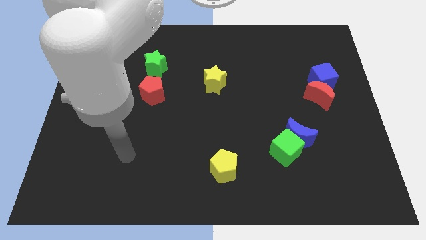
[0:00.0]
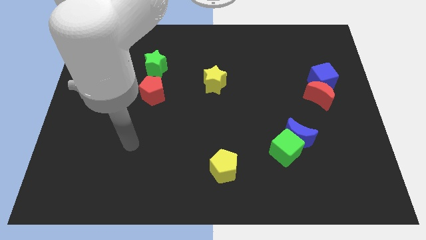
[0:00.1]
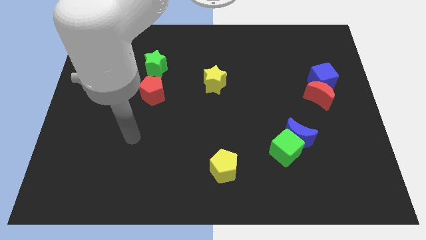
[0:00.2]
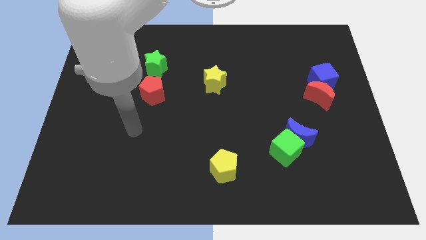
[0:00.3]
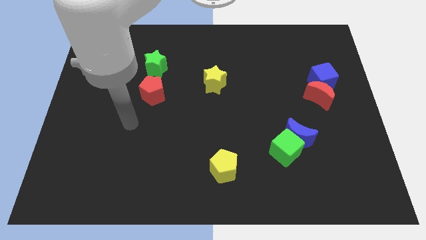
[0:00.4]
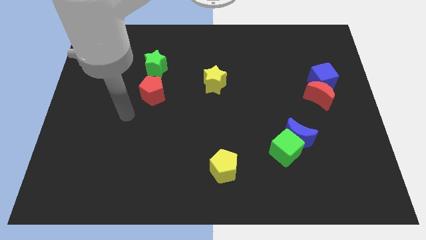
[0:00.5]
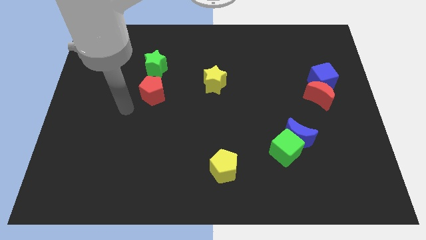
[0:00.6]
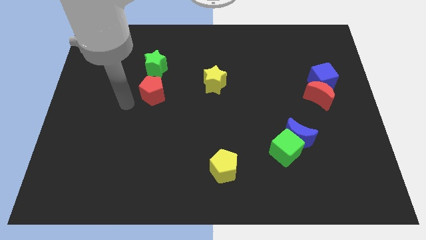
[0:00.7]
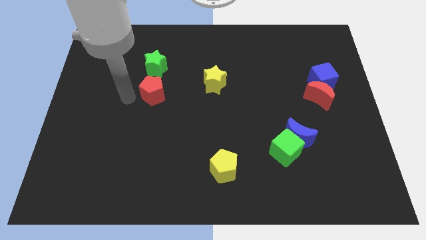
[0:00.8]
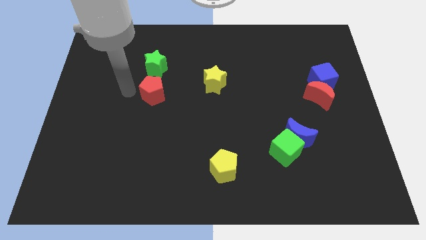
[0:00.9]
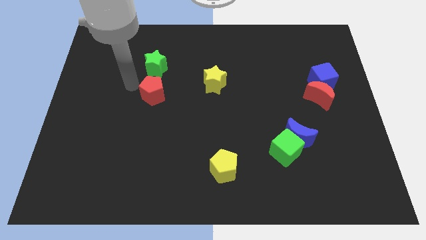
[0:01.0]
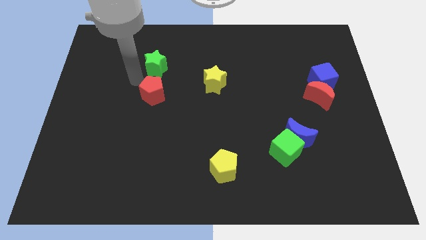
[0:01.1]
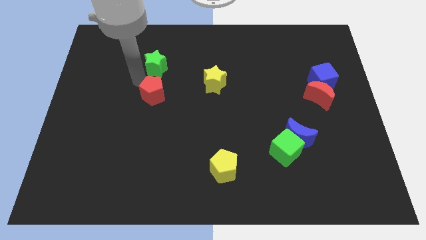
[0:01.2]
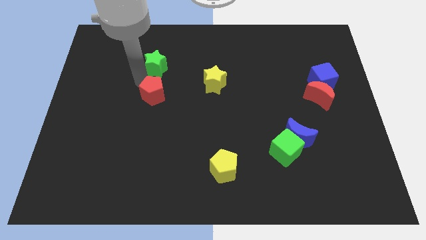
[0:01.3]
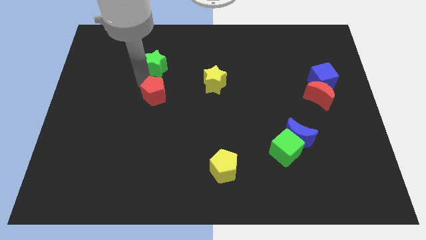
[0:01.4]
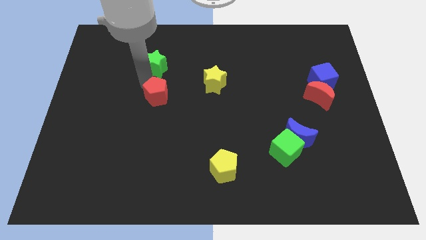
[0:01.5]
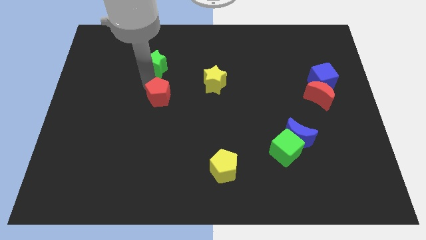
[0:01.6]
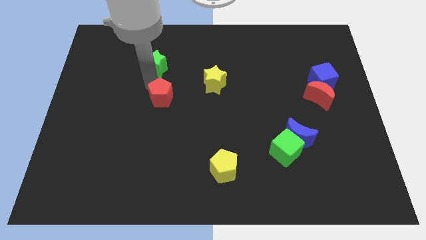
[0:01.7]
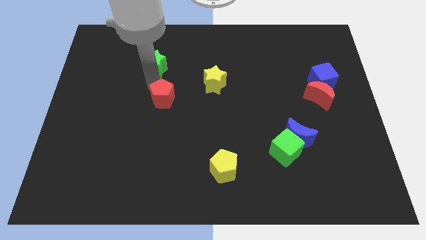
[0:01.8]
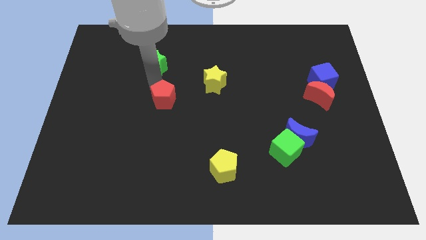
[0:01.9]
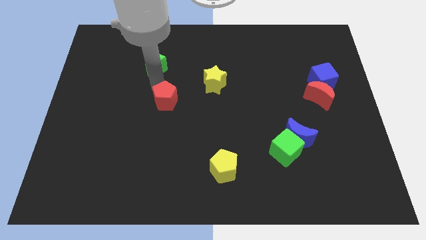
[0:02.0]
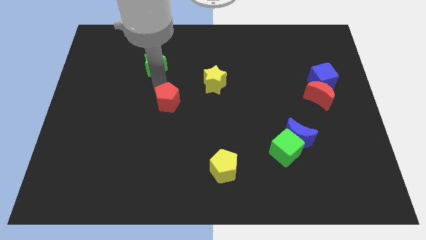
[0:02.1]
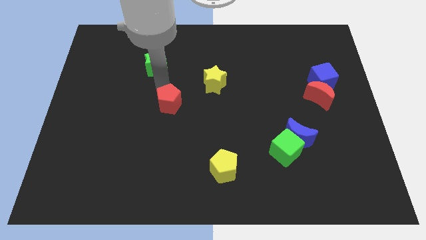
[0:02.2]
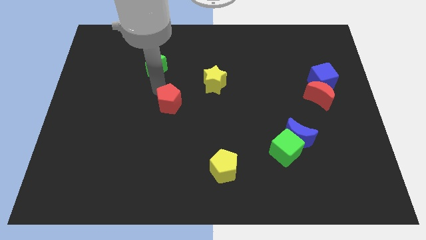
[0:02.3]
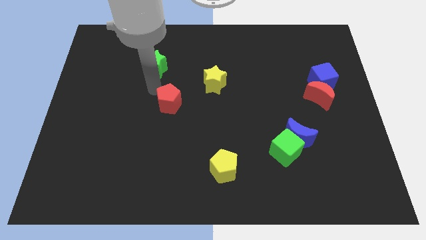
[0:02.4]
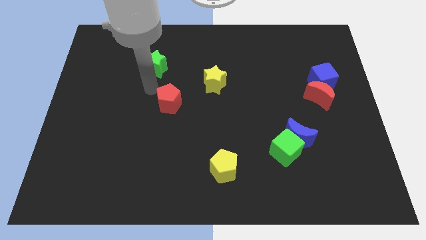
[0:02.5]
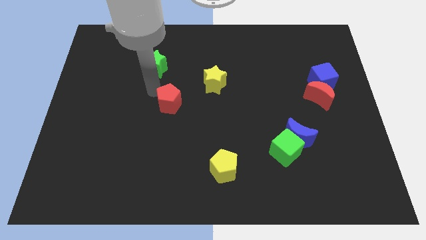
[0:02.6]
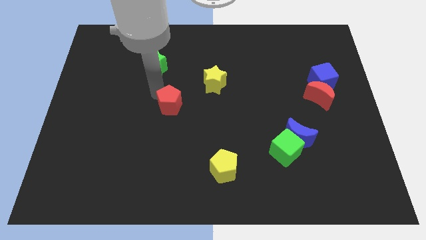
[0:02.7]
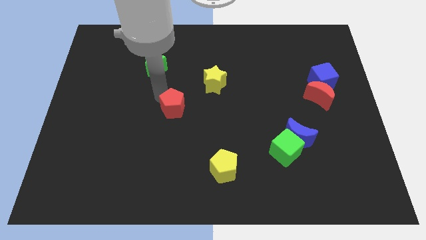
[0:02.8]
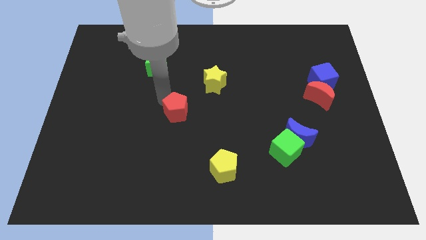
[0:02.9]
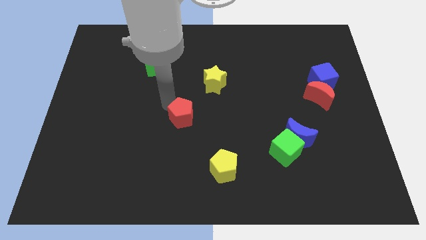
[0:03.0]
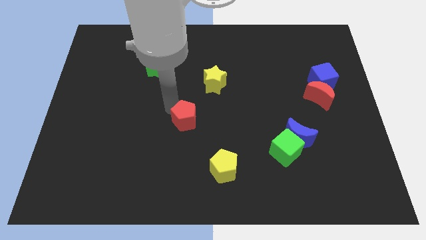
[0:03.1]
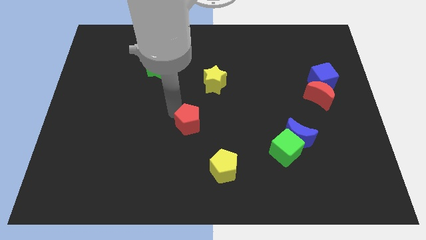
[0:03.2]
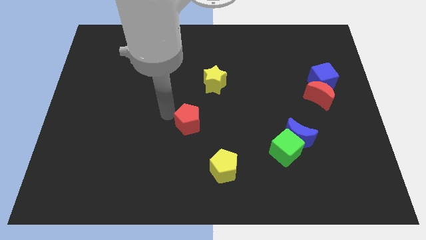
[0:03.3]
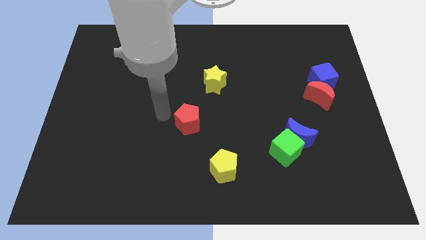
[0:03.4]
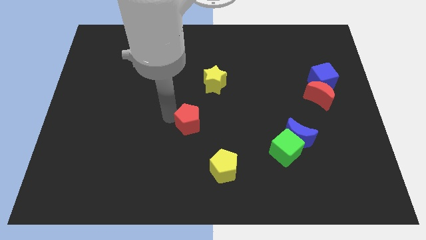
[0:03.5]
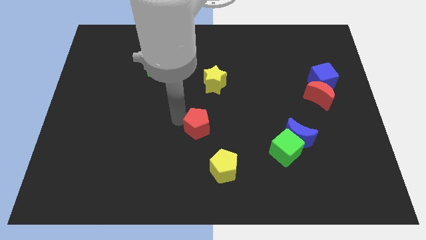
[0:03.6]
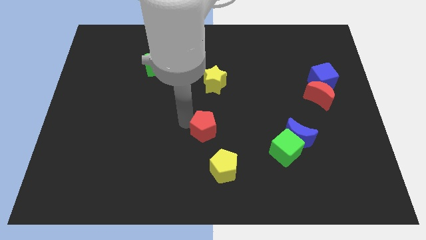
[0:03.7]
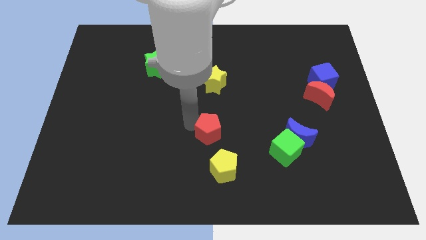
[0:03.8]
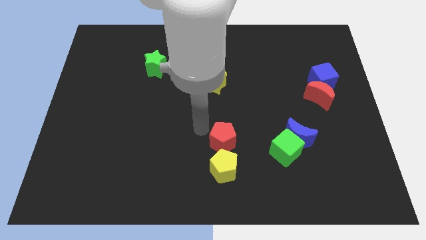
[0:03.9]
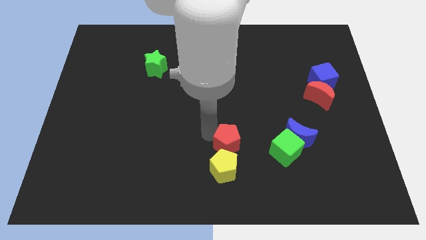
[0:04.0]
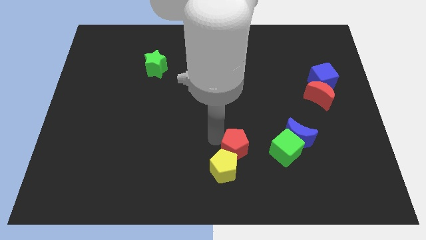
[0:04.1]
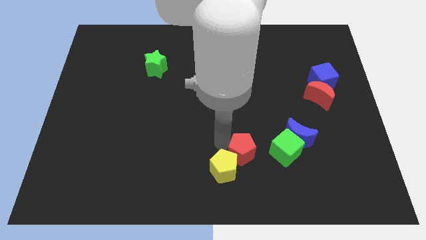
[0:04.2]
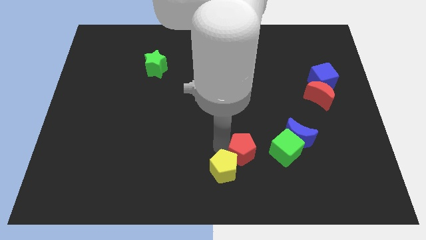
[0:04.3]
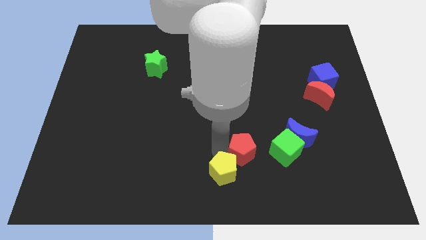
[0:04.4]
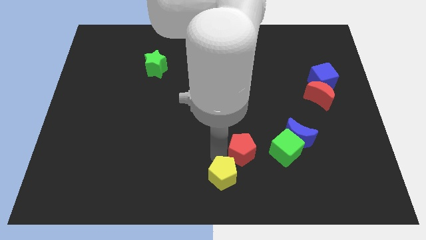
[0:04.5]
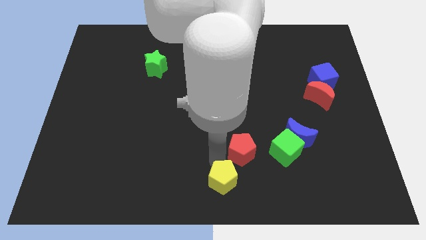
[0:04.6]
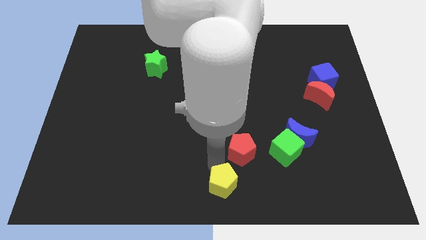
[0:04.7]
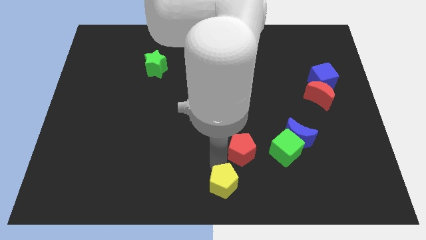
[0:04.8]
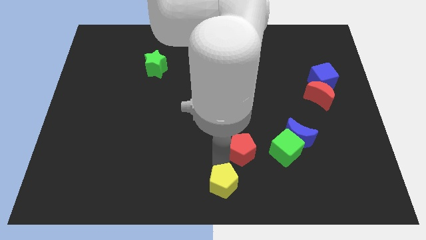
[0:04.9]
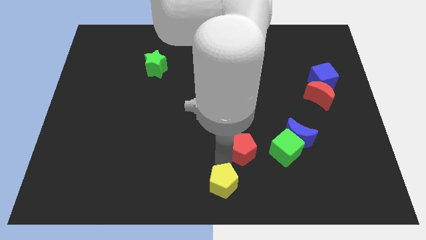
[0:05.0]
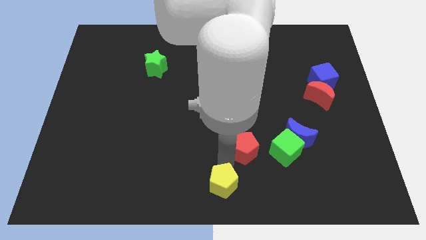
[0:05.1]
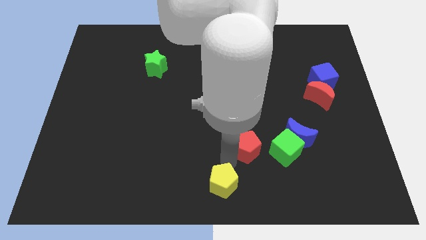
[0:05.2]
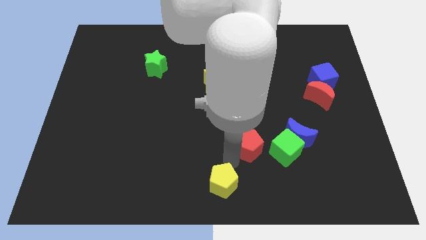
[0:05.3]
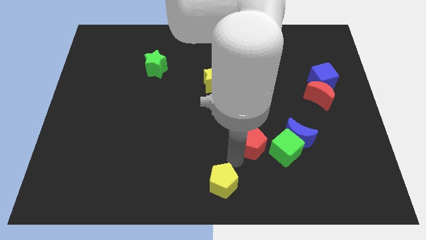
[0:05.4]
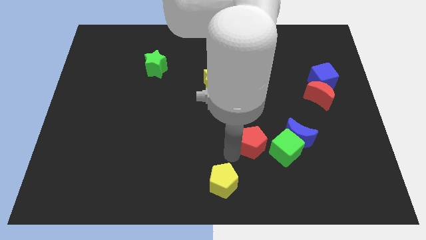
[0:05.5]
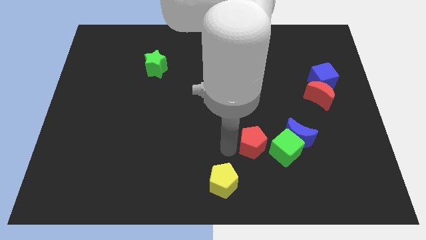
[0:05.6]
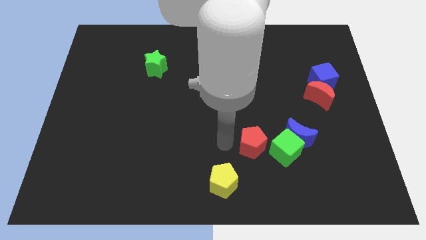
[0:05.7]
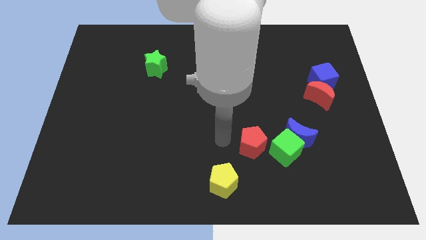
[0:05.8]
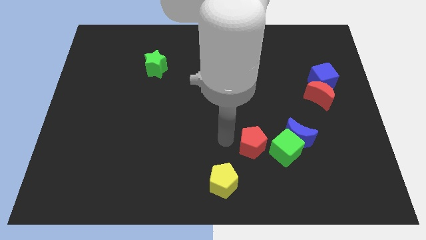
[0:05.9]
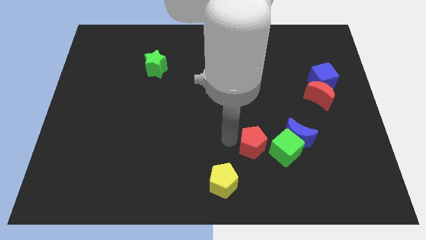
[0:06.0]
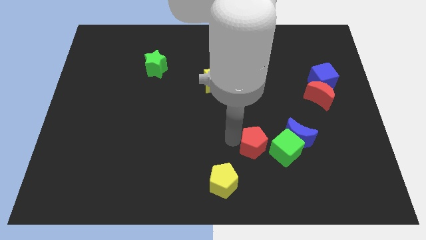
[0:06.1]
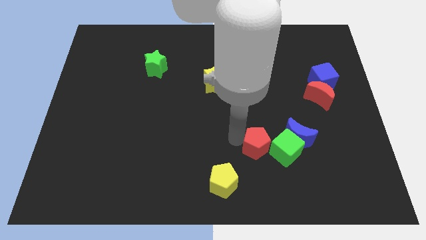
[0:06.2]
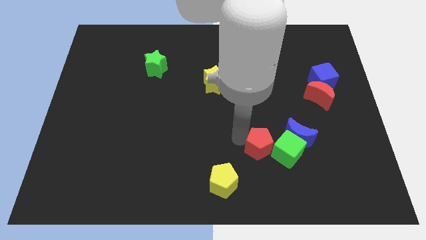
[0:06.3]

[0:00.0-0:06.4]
move the red pentagon close to the green cube

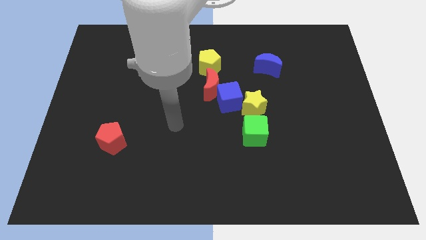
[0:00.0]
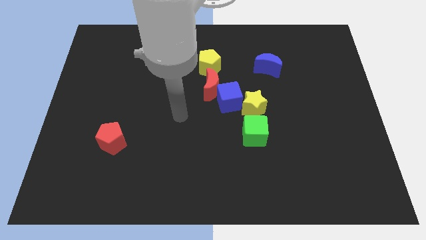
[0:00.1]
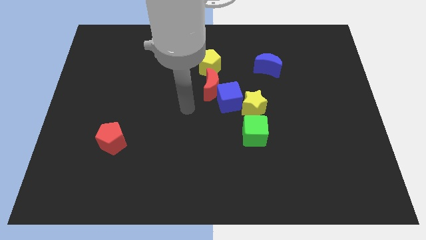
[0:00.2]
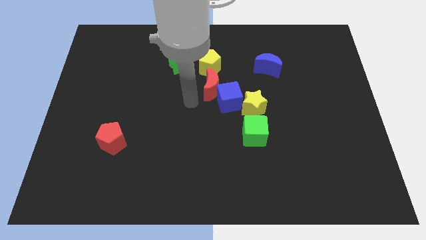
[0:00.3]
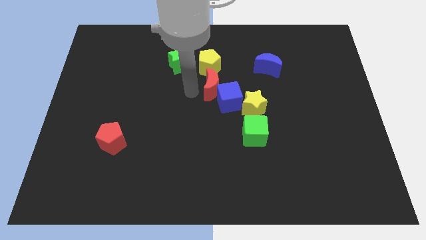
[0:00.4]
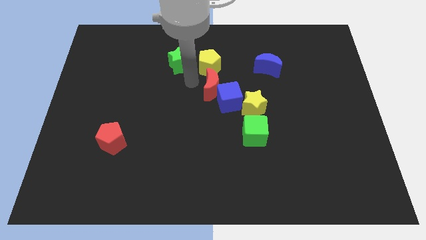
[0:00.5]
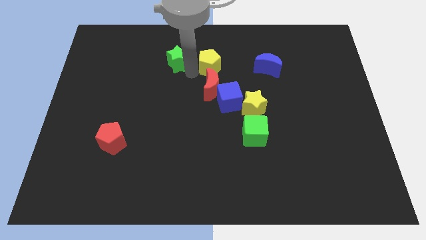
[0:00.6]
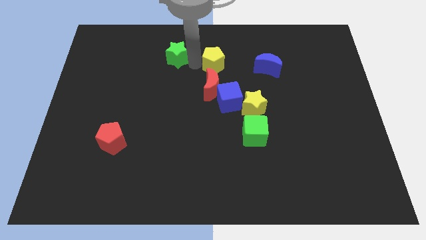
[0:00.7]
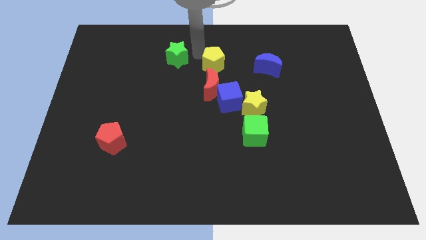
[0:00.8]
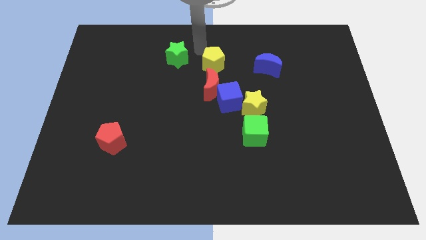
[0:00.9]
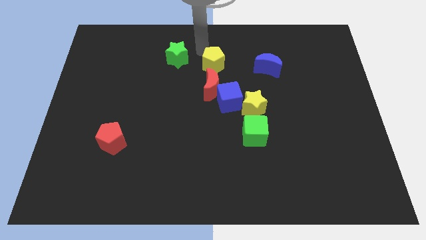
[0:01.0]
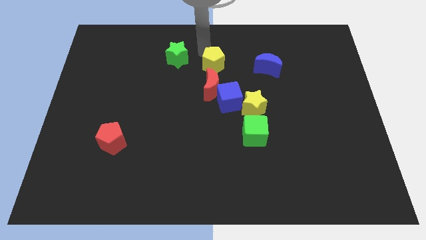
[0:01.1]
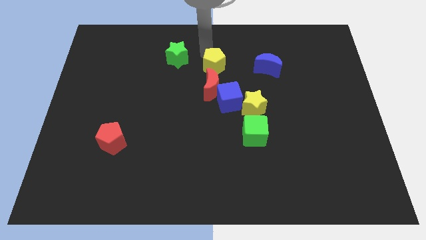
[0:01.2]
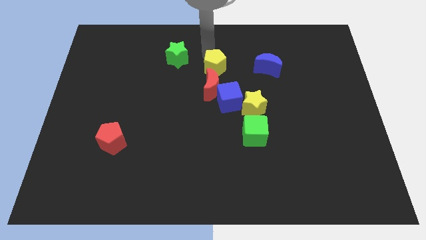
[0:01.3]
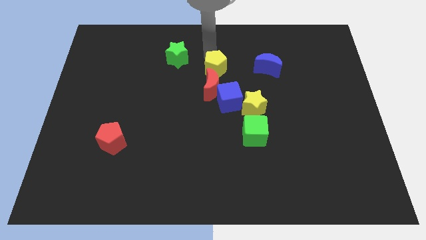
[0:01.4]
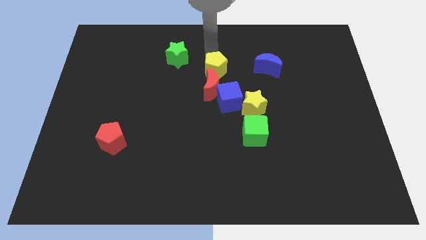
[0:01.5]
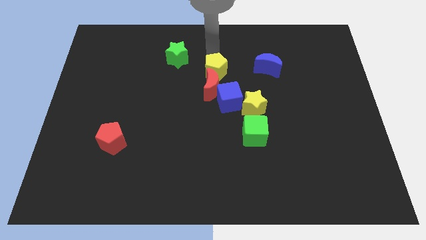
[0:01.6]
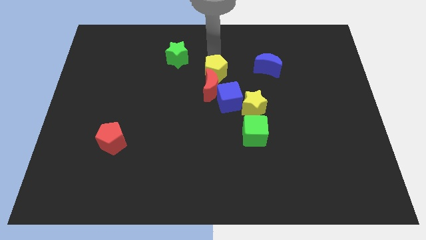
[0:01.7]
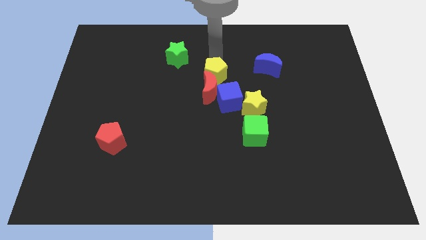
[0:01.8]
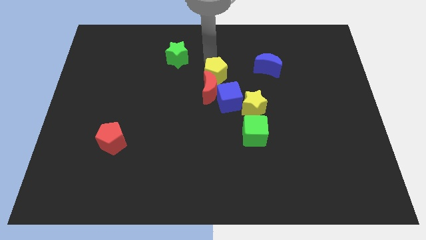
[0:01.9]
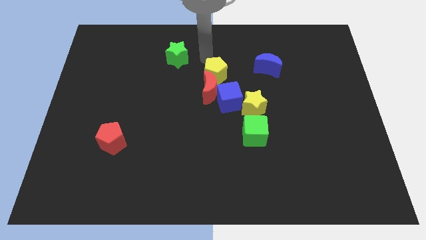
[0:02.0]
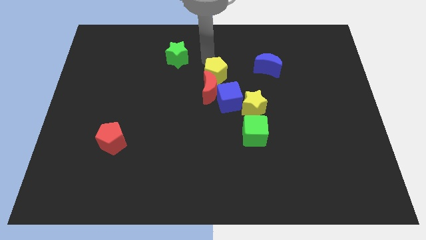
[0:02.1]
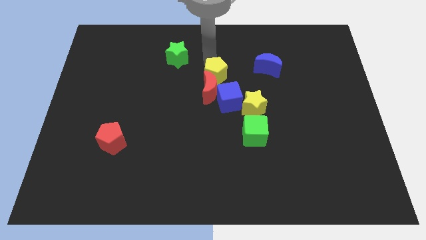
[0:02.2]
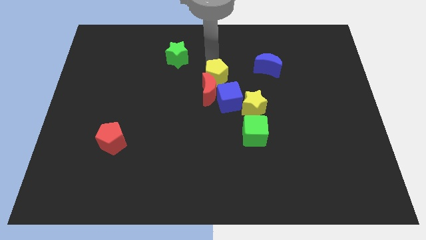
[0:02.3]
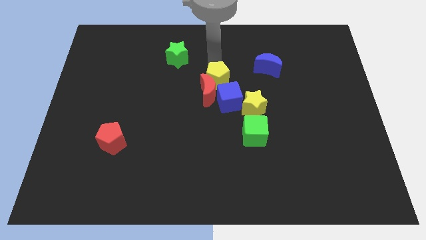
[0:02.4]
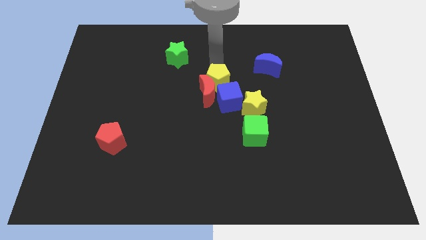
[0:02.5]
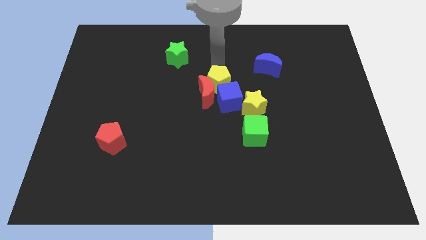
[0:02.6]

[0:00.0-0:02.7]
move the yellow pentagon next to the blue cube
